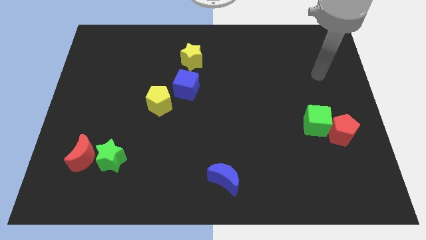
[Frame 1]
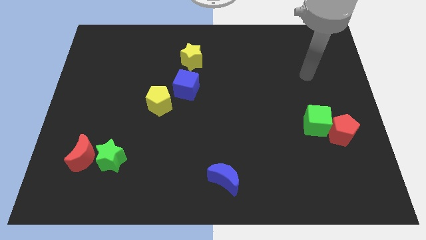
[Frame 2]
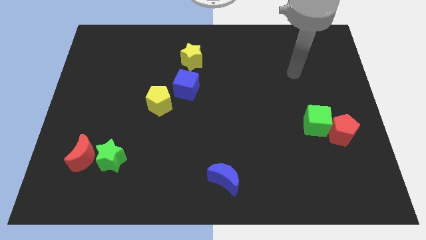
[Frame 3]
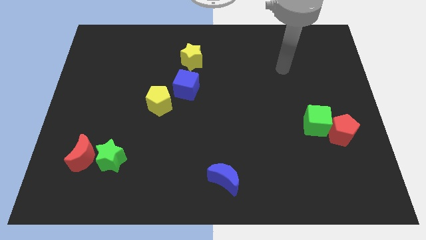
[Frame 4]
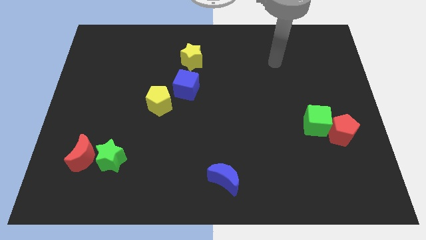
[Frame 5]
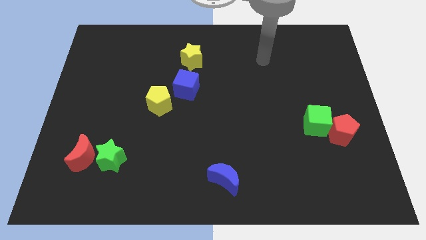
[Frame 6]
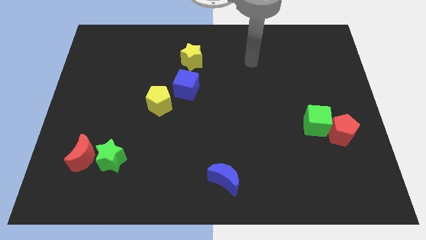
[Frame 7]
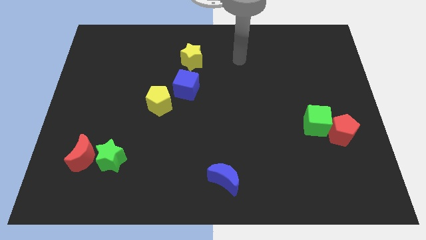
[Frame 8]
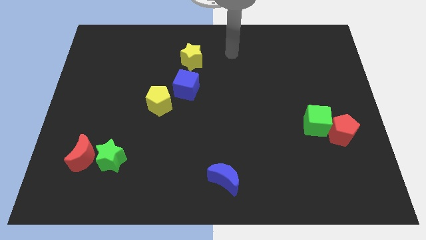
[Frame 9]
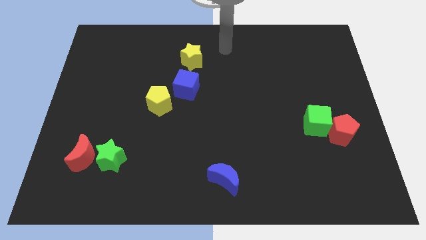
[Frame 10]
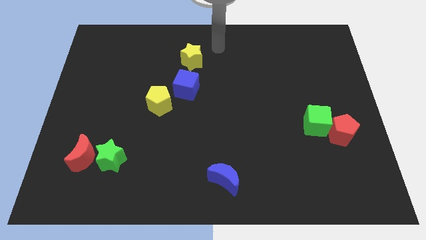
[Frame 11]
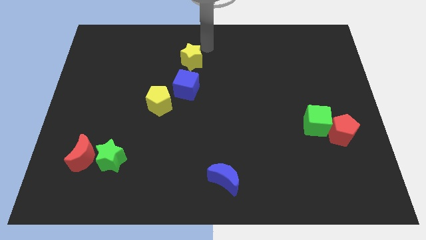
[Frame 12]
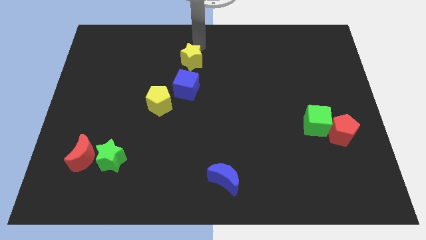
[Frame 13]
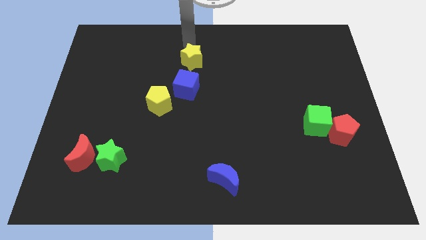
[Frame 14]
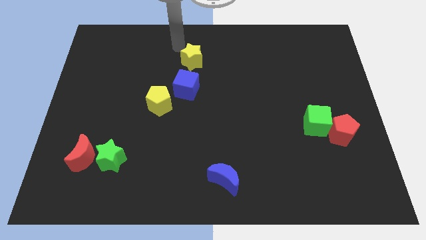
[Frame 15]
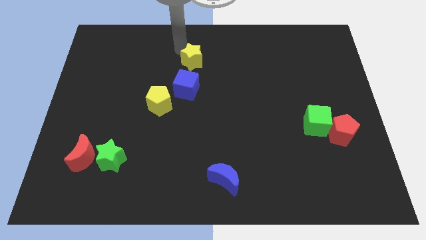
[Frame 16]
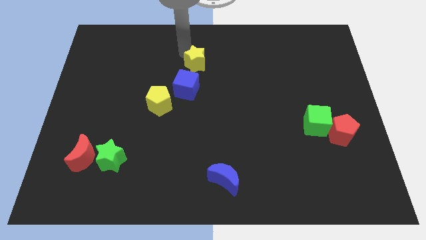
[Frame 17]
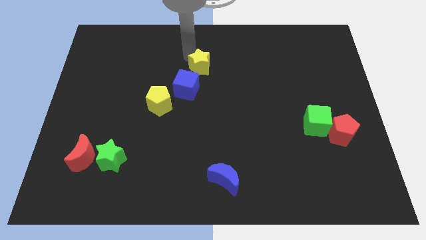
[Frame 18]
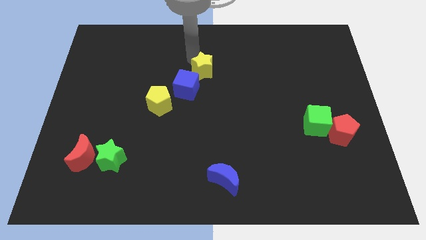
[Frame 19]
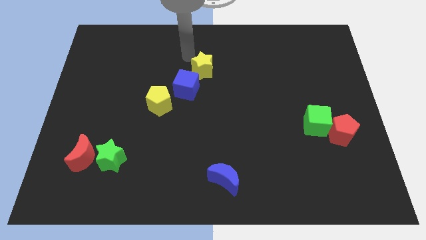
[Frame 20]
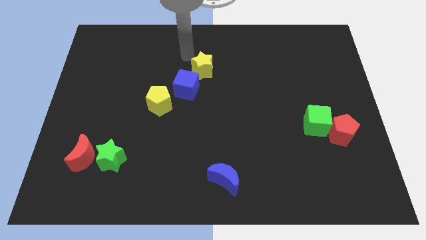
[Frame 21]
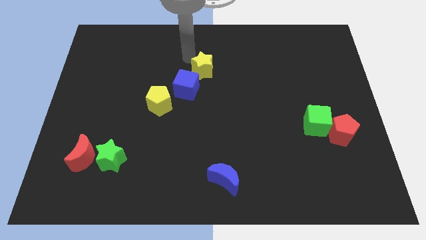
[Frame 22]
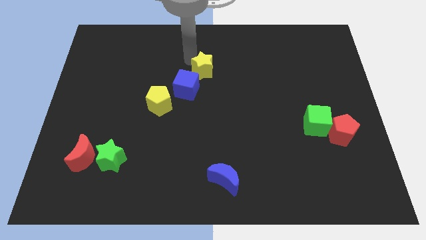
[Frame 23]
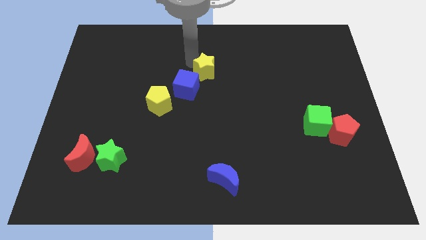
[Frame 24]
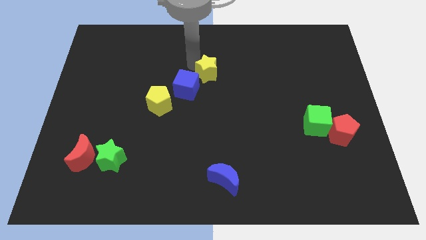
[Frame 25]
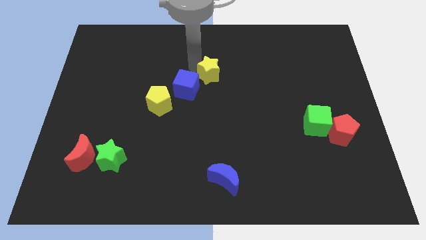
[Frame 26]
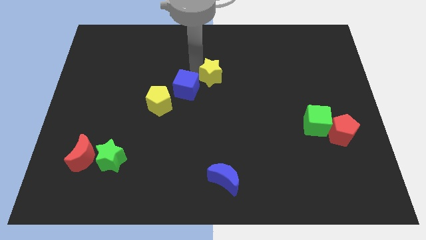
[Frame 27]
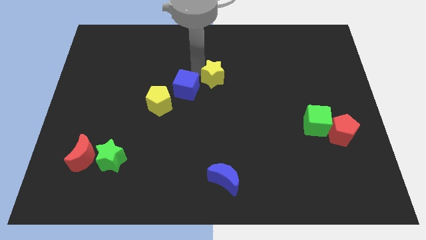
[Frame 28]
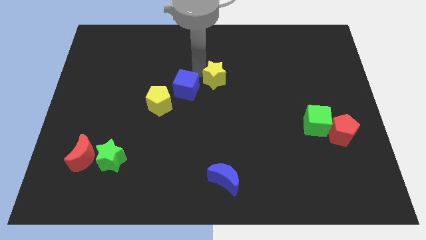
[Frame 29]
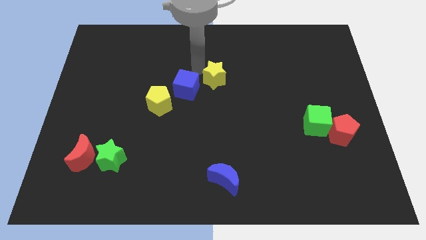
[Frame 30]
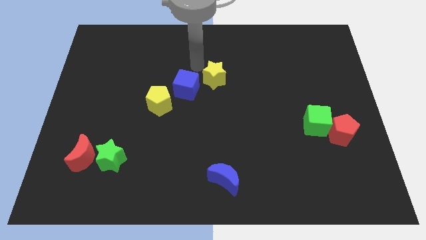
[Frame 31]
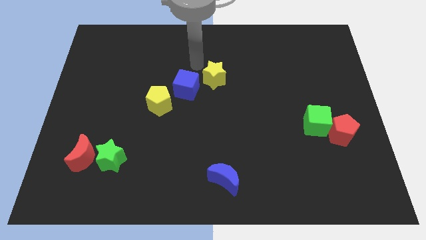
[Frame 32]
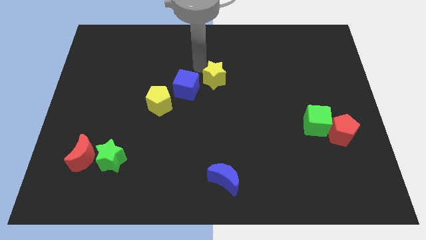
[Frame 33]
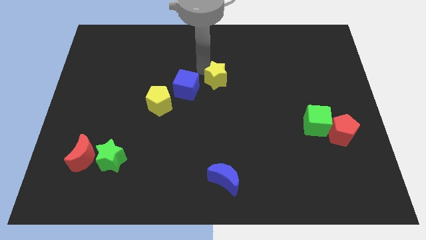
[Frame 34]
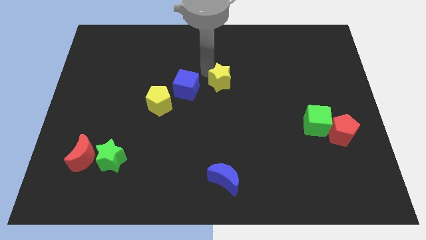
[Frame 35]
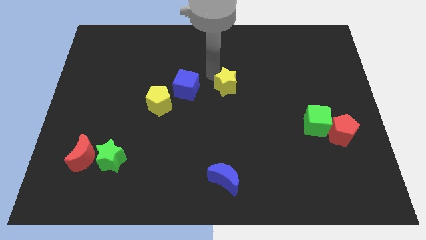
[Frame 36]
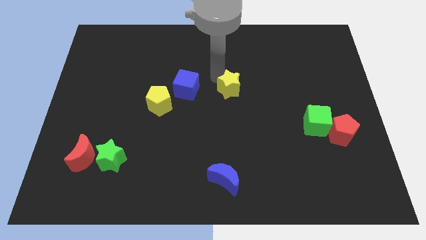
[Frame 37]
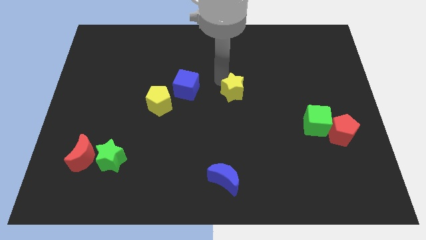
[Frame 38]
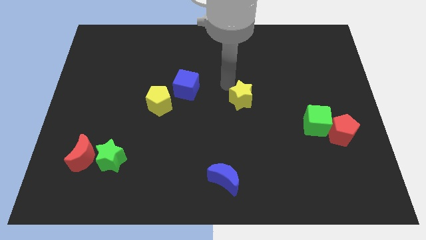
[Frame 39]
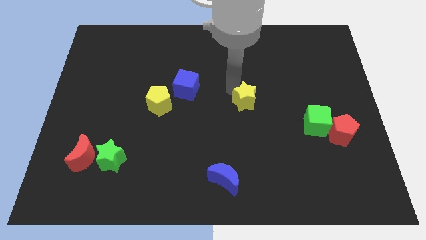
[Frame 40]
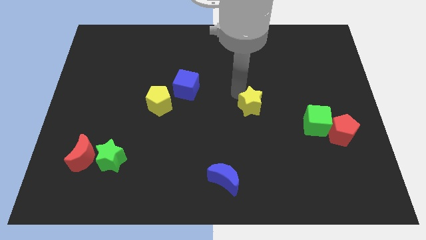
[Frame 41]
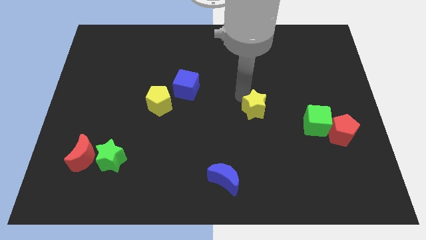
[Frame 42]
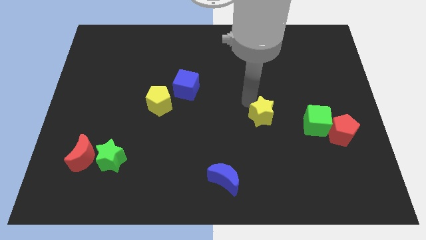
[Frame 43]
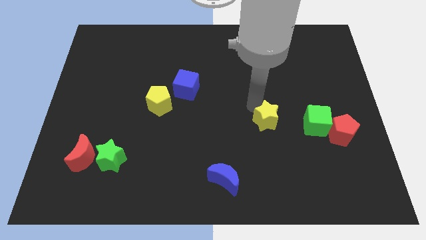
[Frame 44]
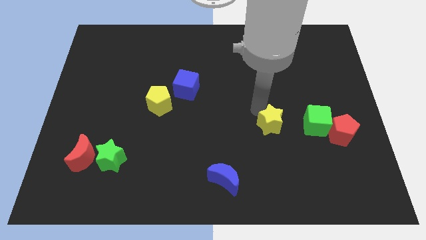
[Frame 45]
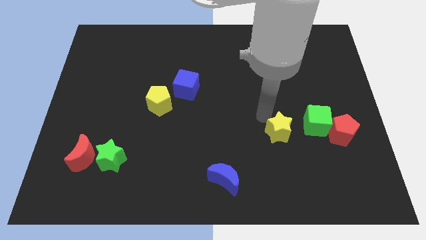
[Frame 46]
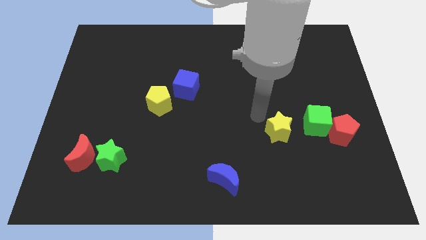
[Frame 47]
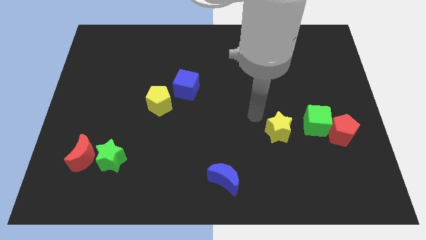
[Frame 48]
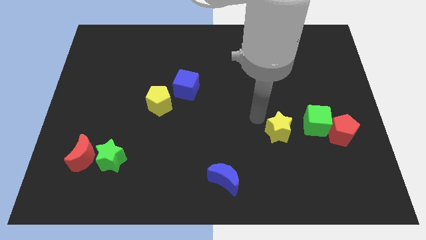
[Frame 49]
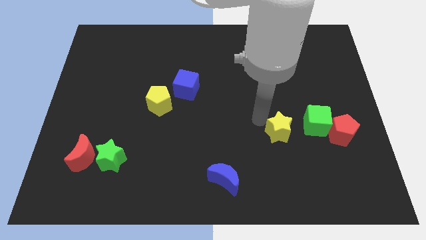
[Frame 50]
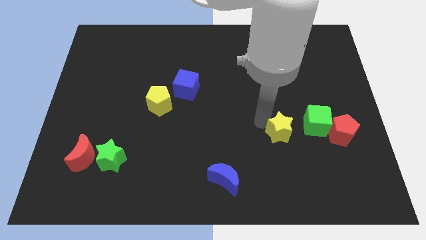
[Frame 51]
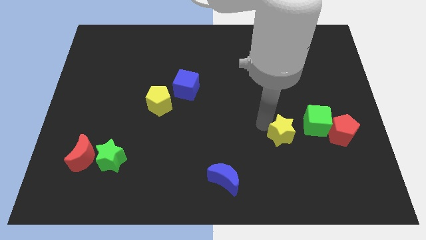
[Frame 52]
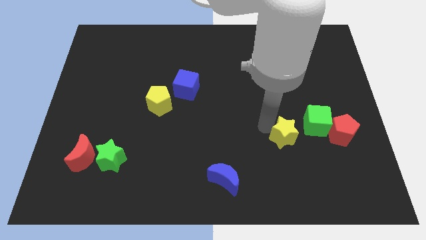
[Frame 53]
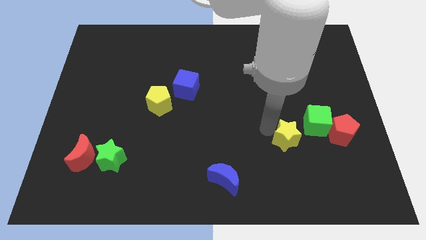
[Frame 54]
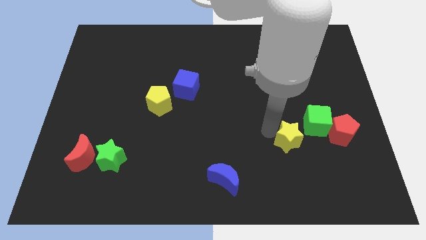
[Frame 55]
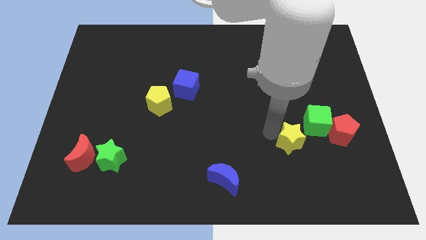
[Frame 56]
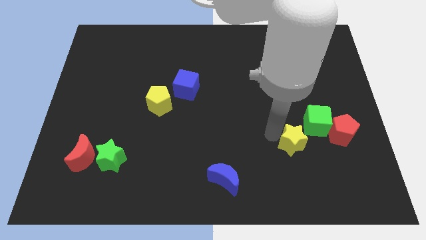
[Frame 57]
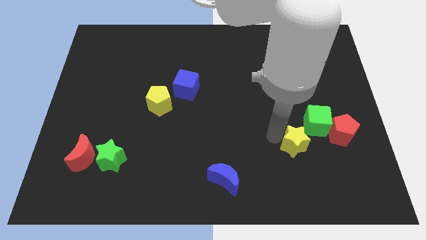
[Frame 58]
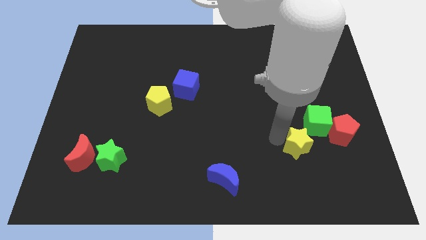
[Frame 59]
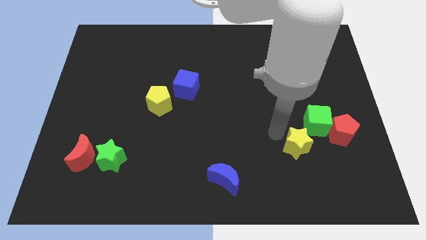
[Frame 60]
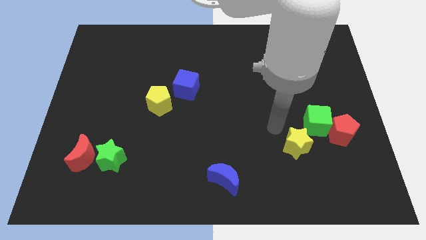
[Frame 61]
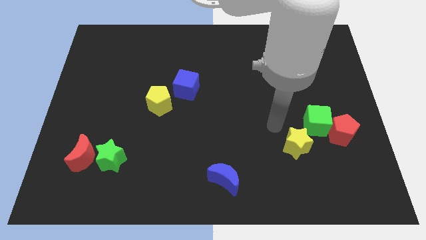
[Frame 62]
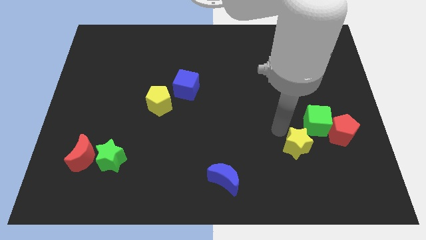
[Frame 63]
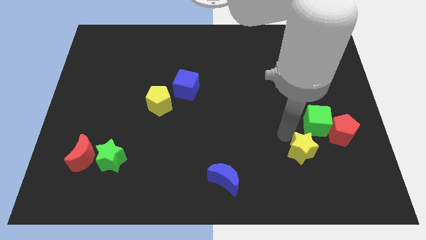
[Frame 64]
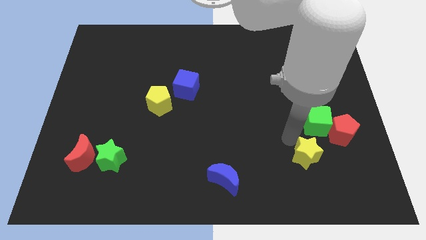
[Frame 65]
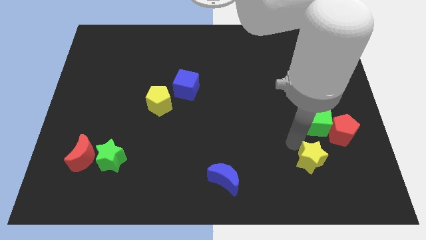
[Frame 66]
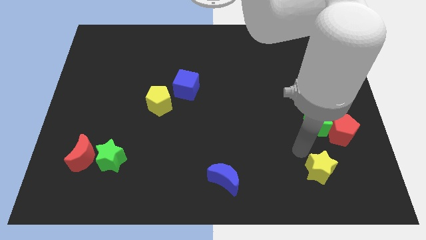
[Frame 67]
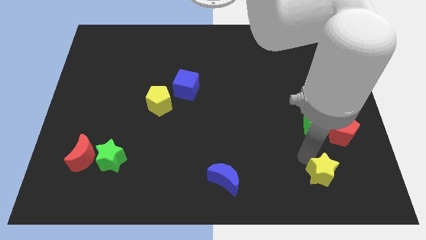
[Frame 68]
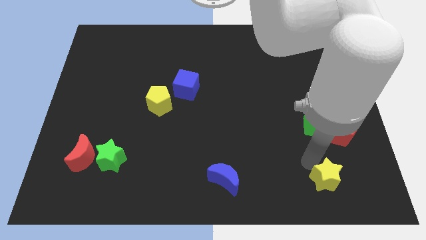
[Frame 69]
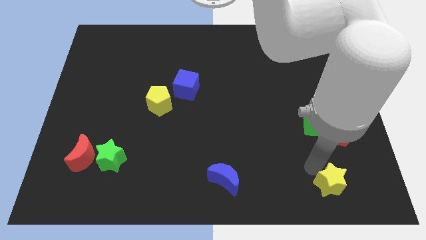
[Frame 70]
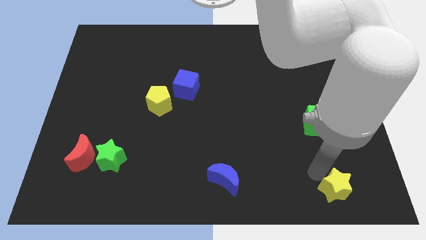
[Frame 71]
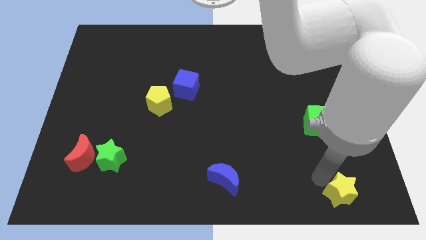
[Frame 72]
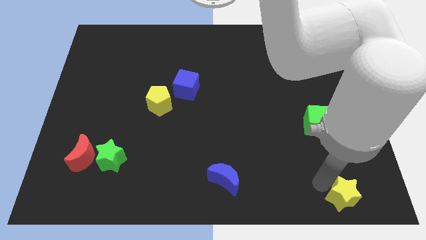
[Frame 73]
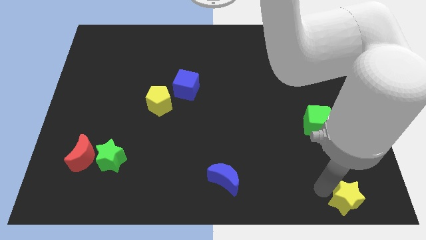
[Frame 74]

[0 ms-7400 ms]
push the yellow star to the bottom right corner
